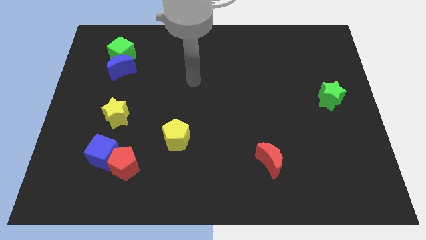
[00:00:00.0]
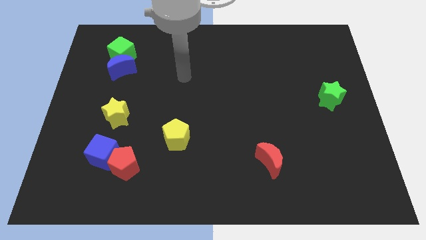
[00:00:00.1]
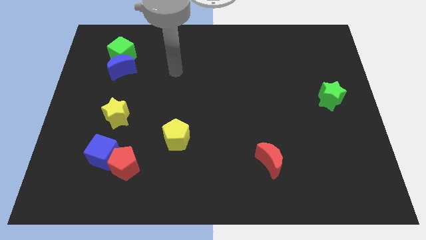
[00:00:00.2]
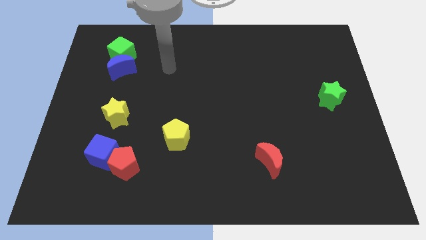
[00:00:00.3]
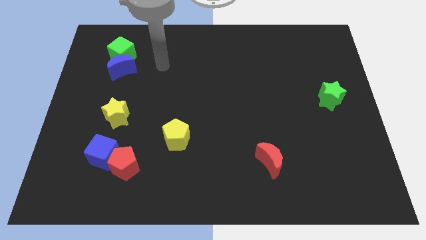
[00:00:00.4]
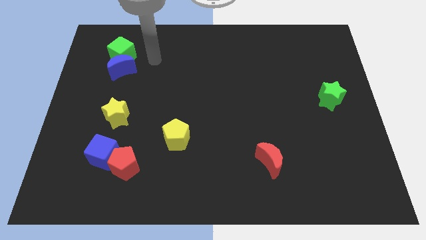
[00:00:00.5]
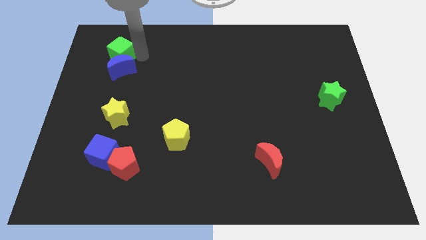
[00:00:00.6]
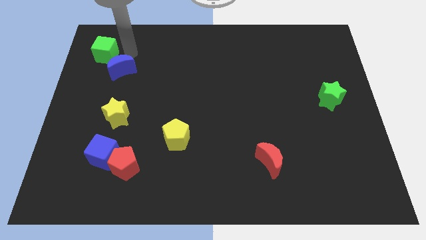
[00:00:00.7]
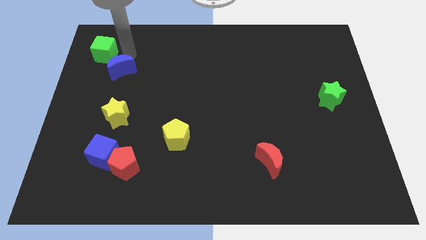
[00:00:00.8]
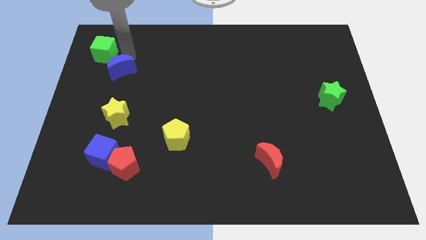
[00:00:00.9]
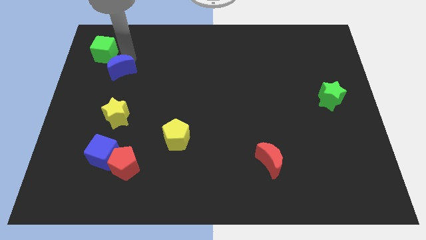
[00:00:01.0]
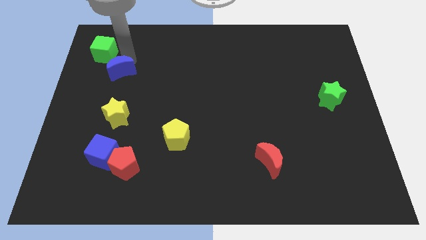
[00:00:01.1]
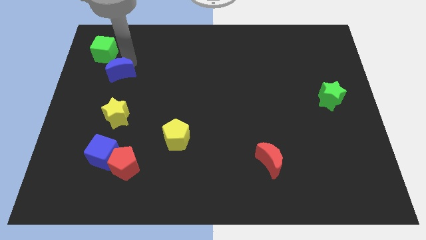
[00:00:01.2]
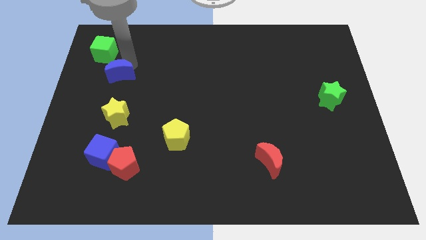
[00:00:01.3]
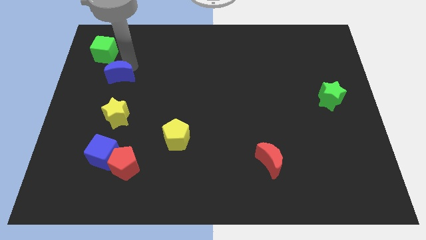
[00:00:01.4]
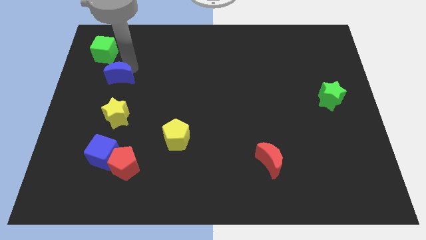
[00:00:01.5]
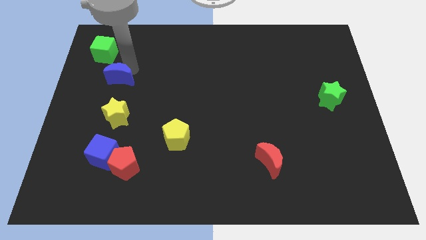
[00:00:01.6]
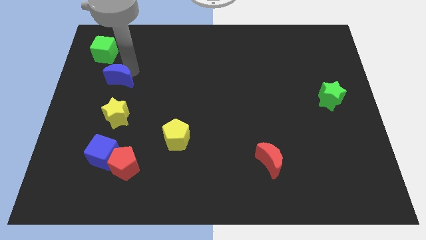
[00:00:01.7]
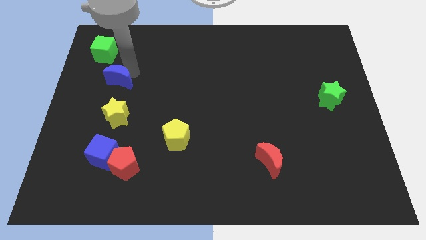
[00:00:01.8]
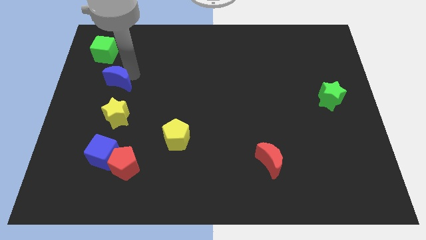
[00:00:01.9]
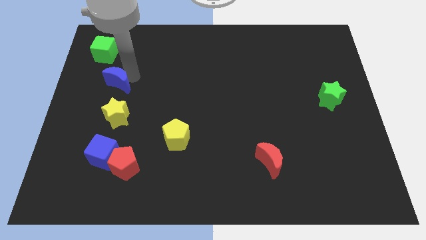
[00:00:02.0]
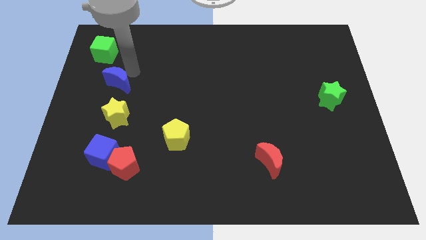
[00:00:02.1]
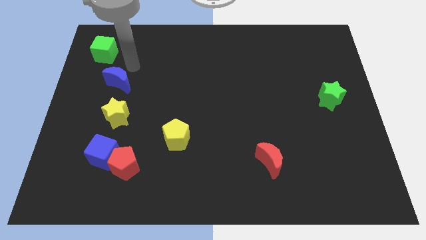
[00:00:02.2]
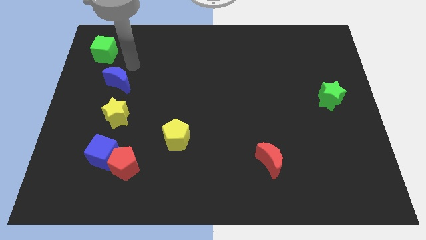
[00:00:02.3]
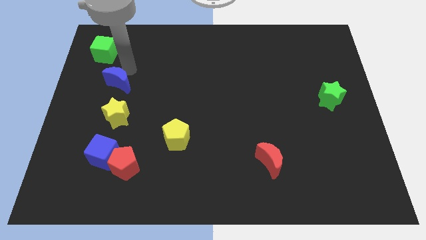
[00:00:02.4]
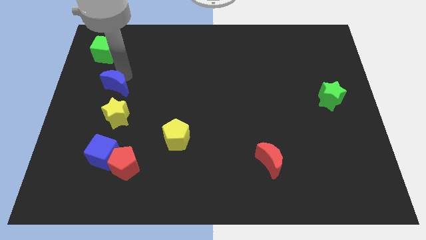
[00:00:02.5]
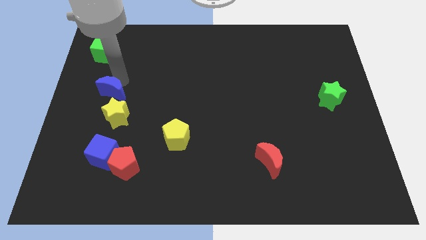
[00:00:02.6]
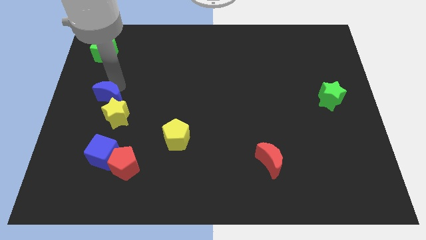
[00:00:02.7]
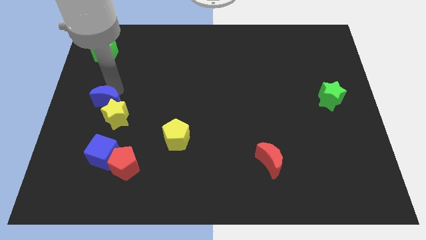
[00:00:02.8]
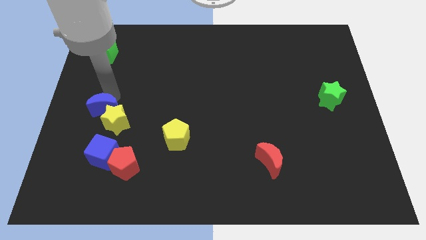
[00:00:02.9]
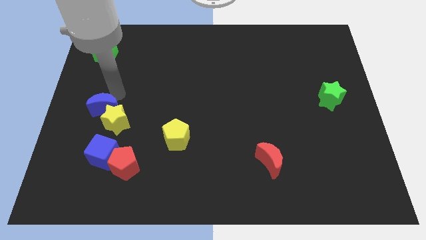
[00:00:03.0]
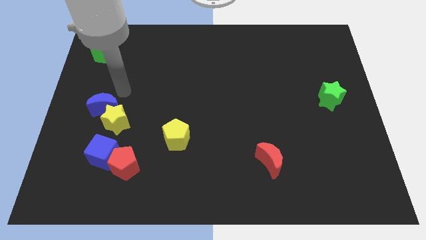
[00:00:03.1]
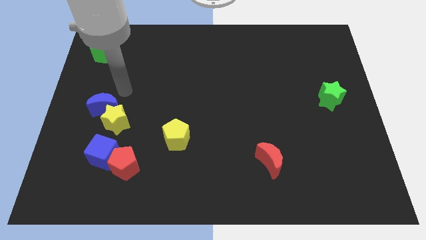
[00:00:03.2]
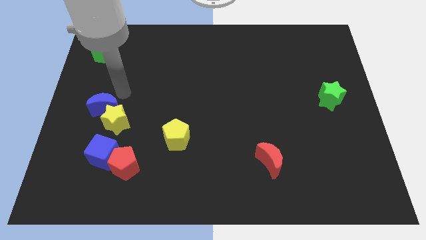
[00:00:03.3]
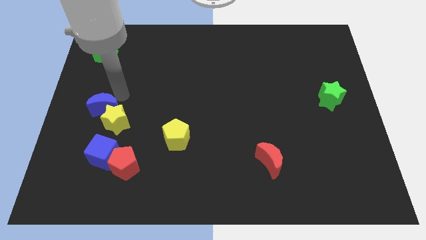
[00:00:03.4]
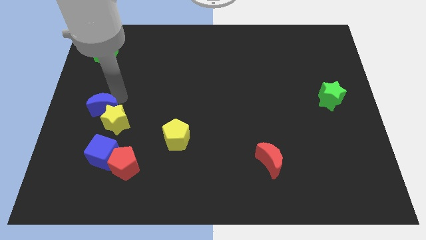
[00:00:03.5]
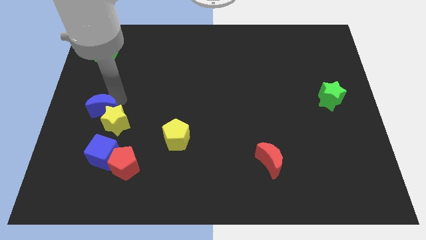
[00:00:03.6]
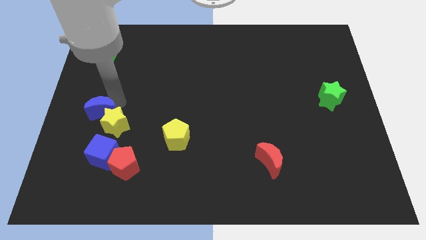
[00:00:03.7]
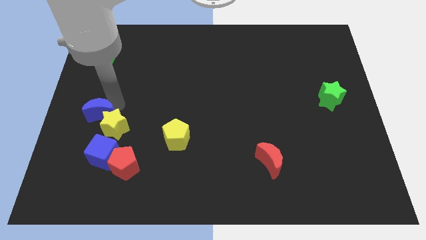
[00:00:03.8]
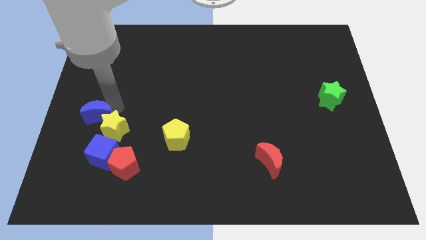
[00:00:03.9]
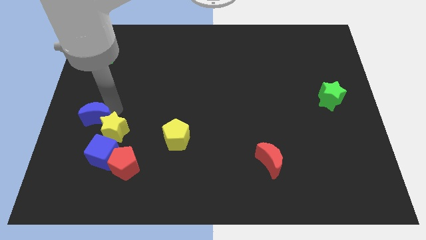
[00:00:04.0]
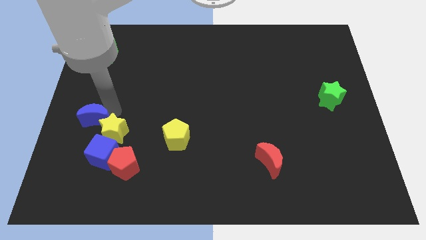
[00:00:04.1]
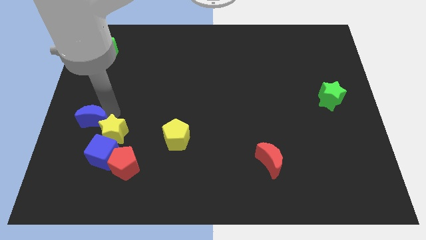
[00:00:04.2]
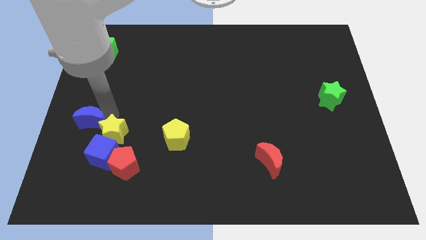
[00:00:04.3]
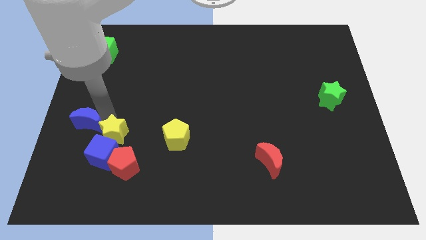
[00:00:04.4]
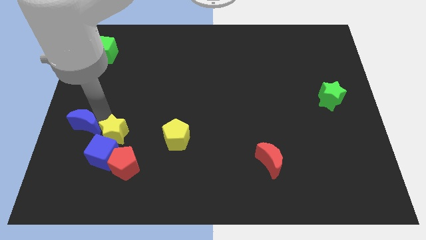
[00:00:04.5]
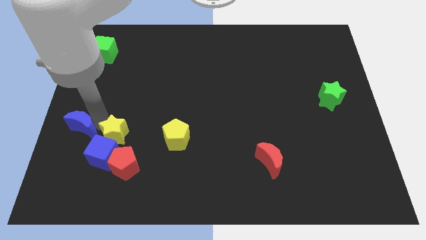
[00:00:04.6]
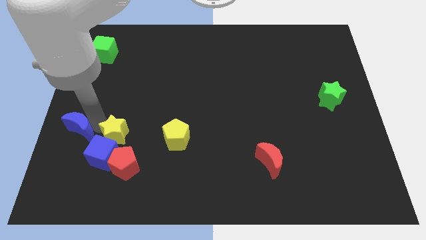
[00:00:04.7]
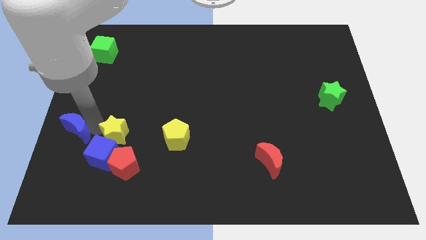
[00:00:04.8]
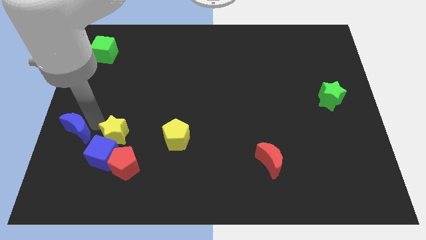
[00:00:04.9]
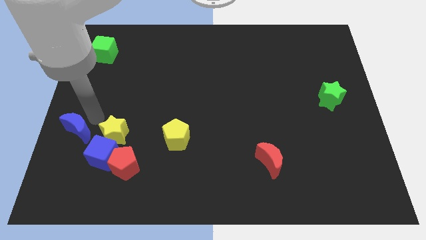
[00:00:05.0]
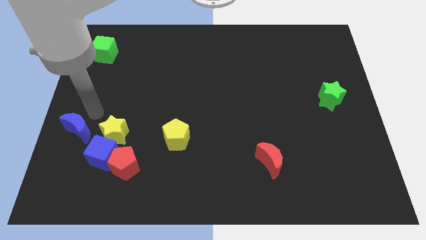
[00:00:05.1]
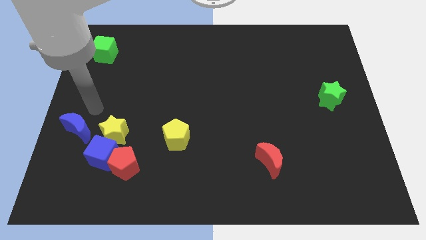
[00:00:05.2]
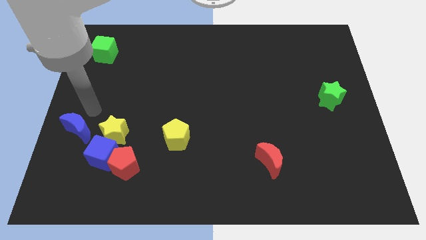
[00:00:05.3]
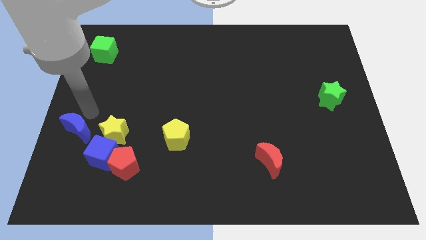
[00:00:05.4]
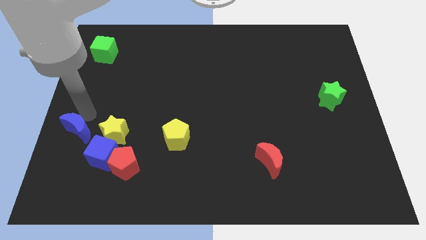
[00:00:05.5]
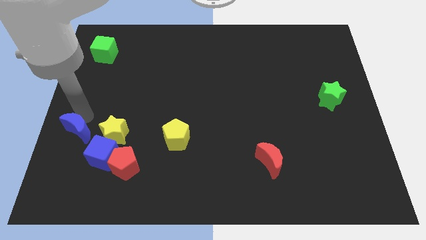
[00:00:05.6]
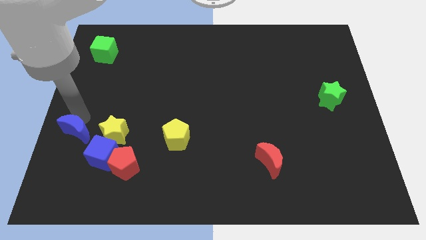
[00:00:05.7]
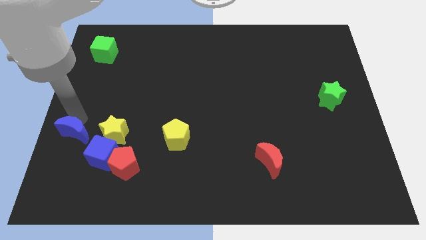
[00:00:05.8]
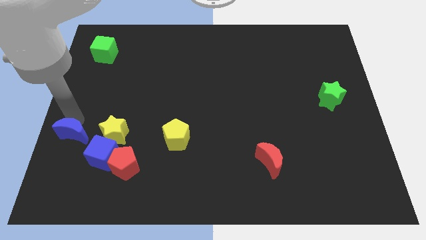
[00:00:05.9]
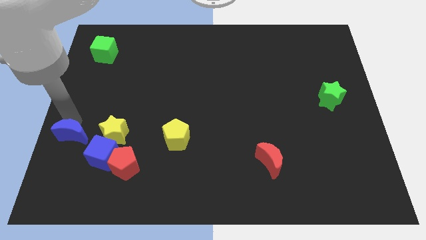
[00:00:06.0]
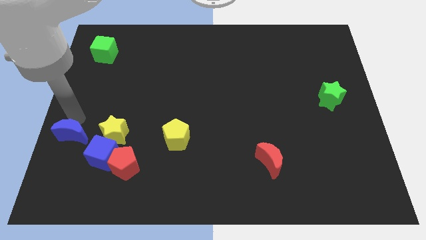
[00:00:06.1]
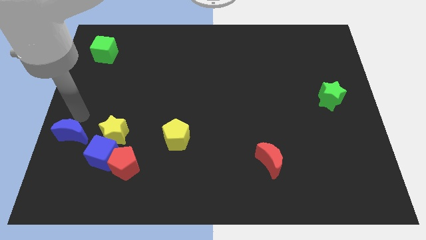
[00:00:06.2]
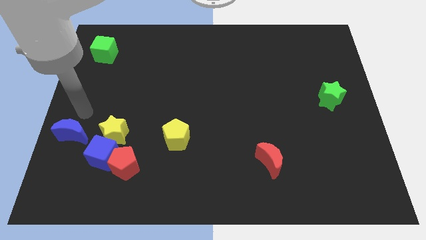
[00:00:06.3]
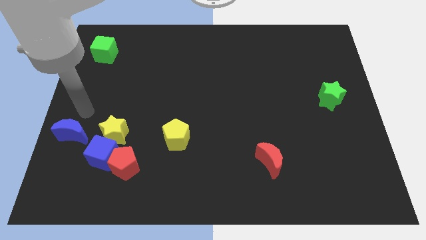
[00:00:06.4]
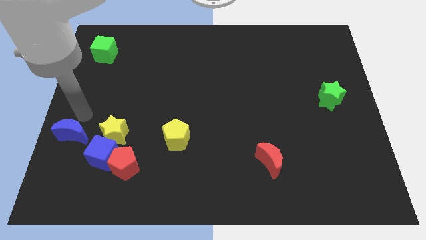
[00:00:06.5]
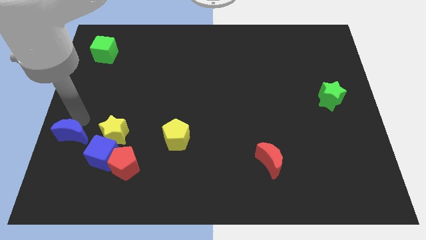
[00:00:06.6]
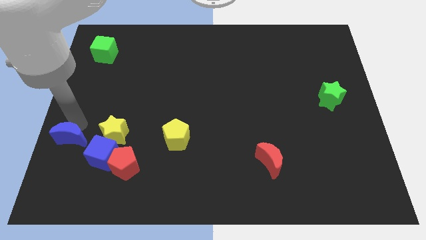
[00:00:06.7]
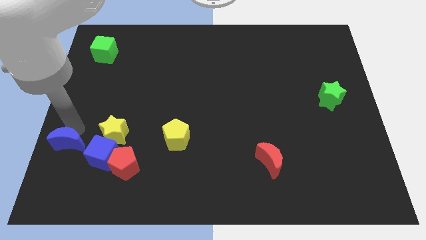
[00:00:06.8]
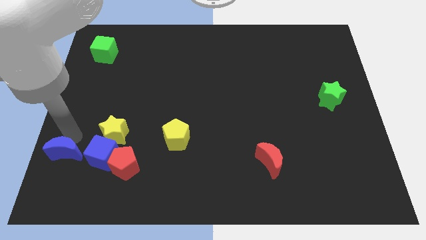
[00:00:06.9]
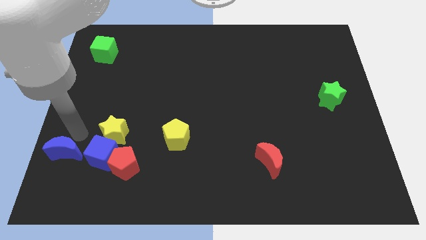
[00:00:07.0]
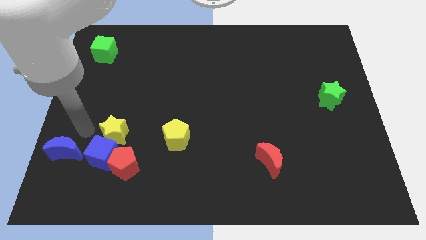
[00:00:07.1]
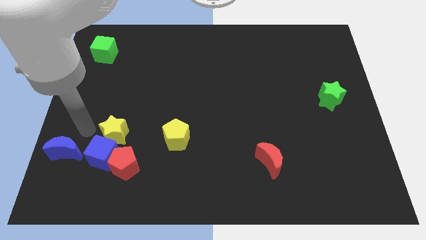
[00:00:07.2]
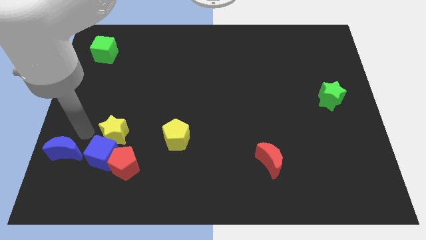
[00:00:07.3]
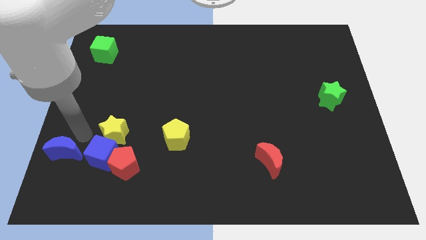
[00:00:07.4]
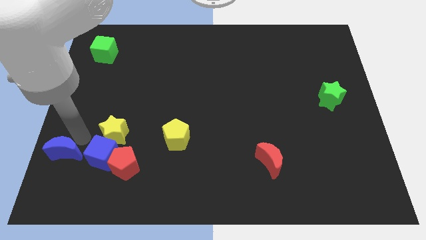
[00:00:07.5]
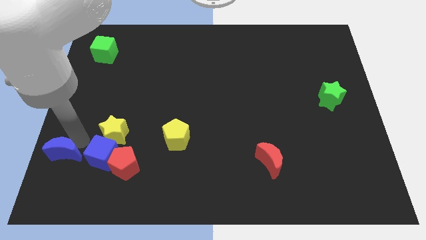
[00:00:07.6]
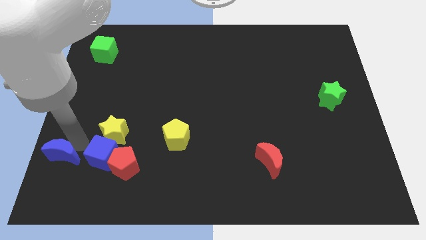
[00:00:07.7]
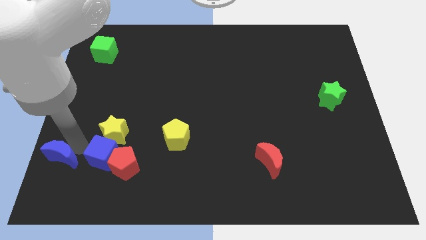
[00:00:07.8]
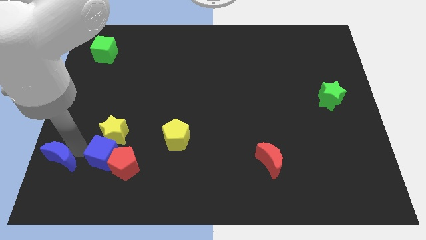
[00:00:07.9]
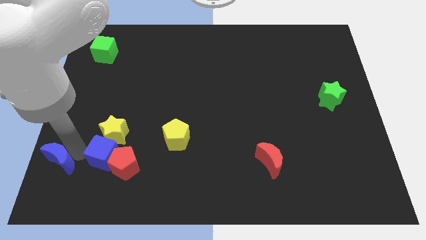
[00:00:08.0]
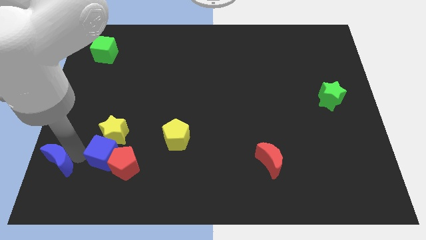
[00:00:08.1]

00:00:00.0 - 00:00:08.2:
slide the blue moon to the lower left corner
